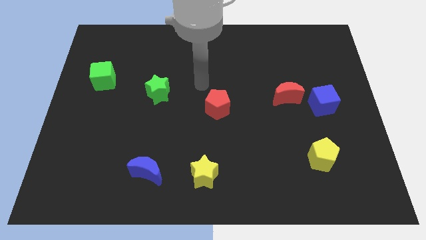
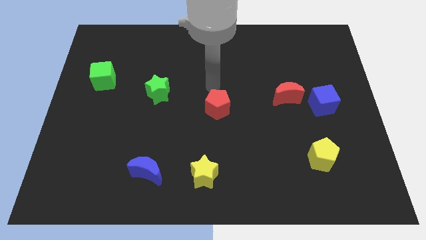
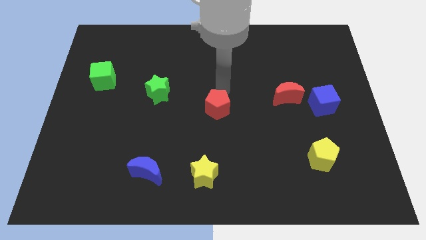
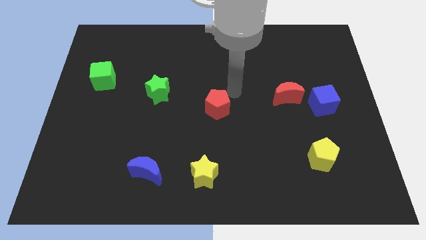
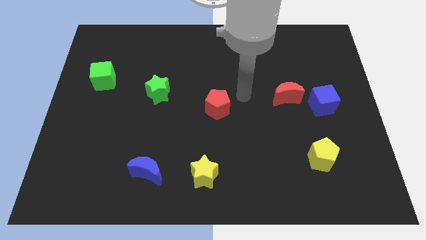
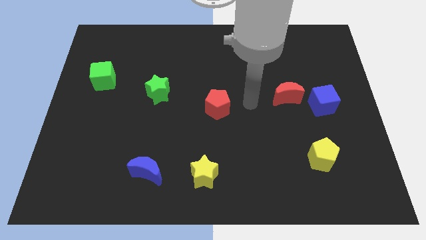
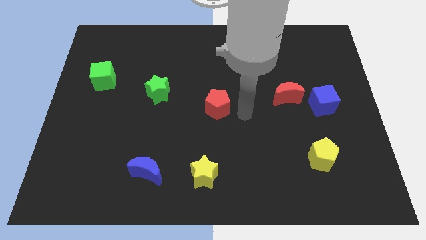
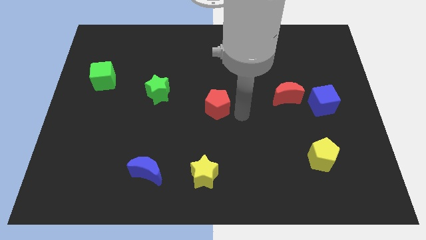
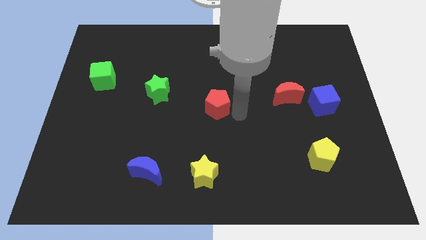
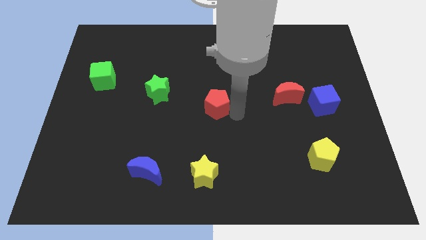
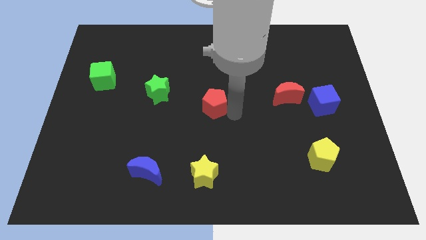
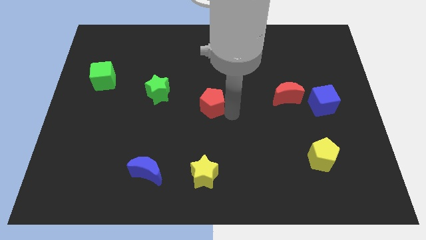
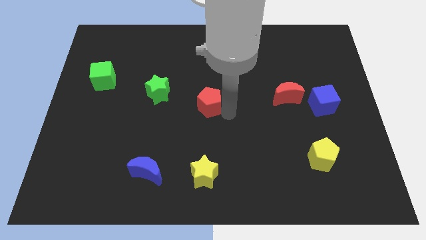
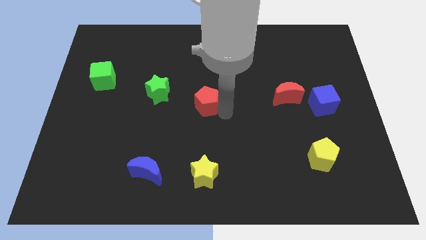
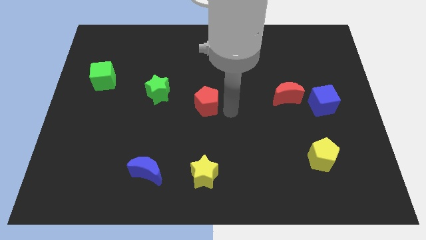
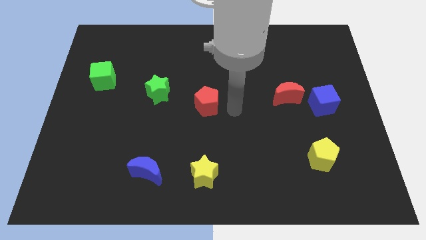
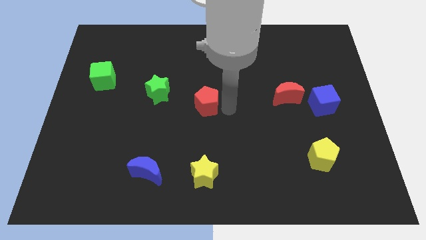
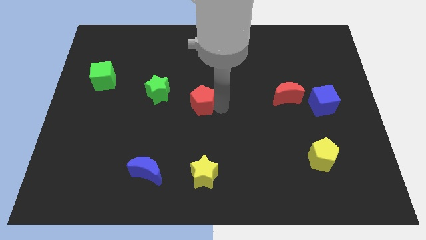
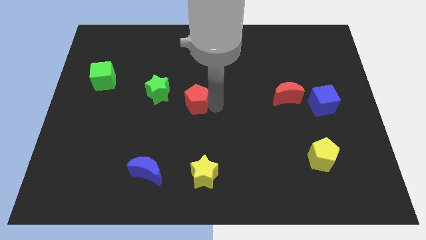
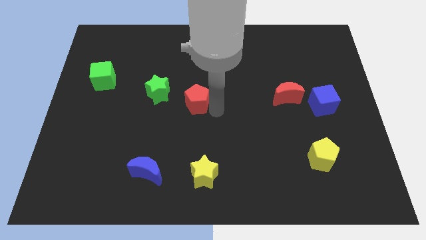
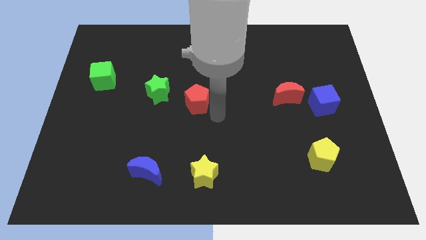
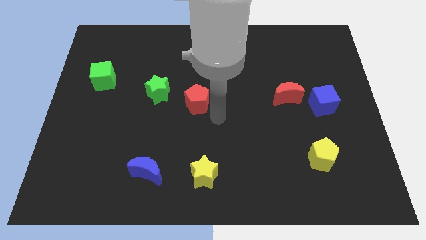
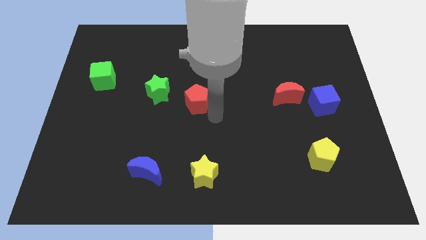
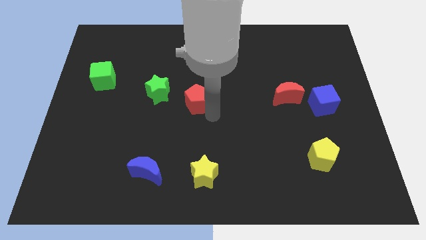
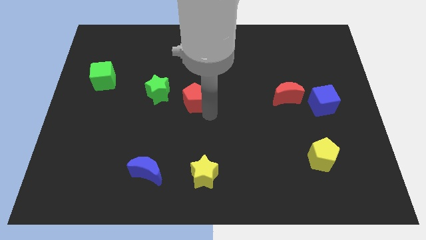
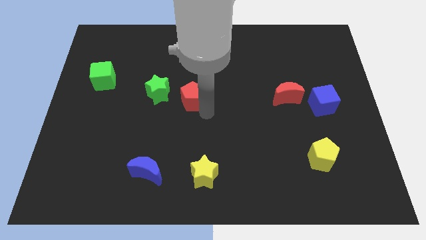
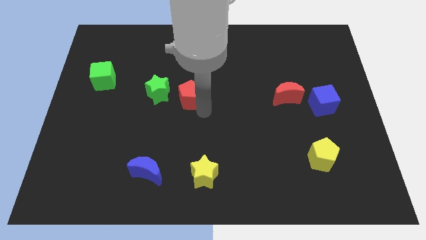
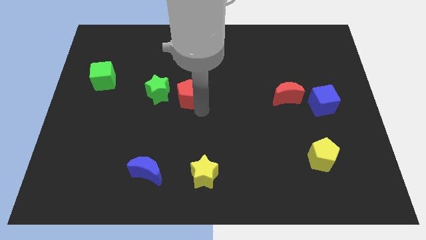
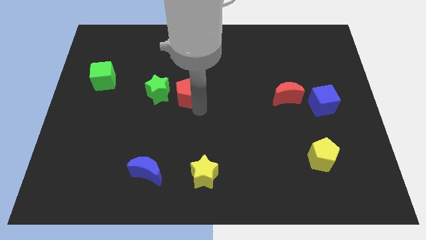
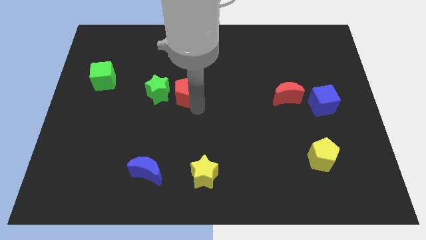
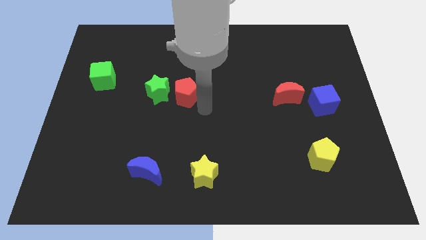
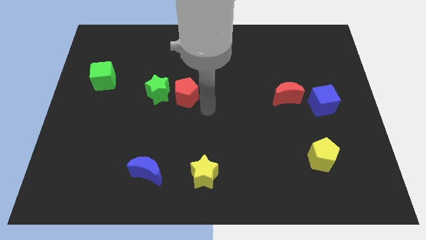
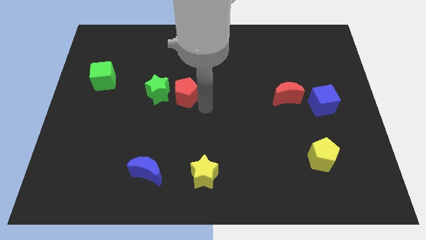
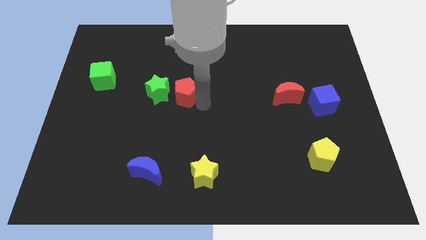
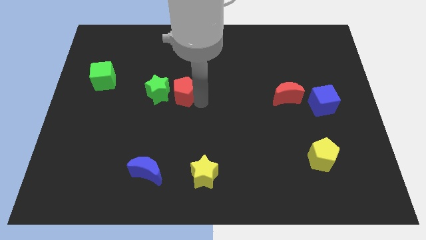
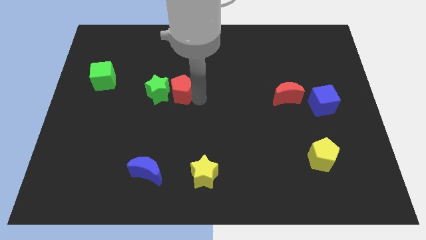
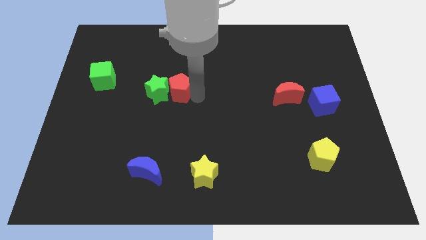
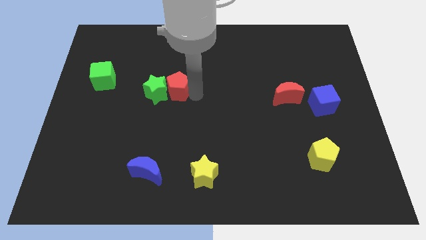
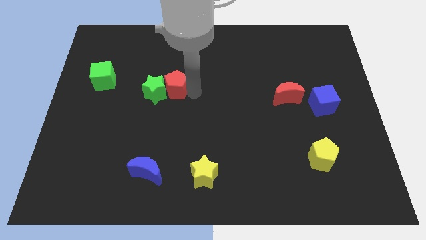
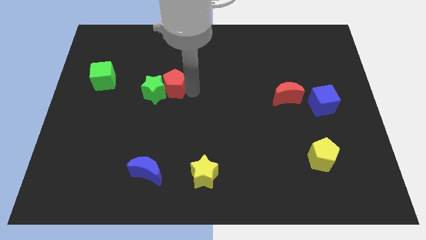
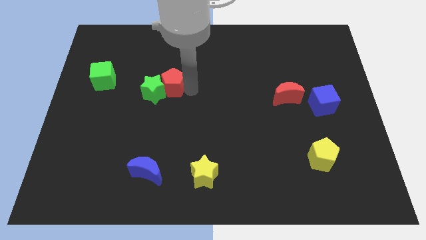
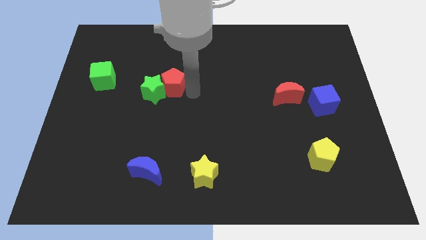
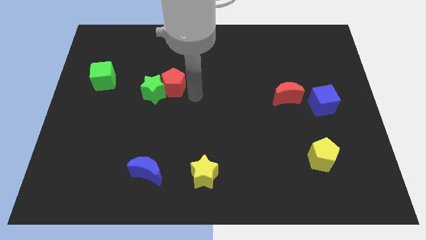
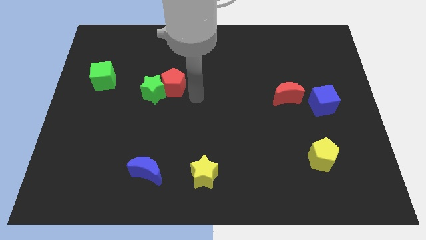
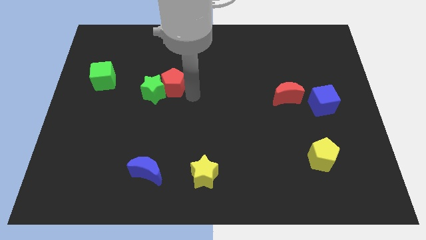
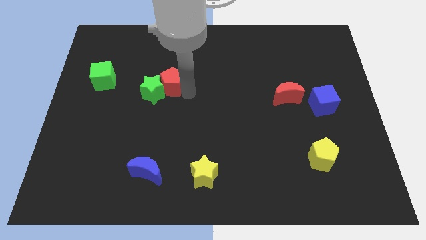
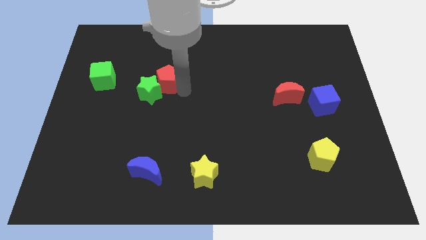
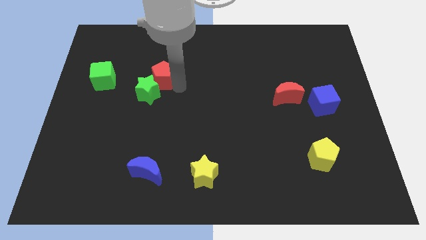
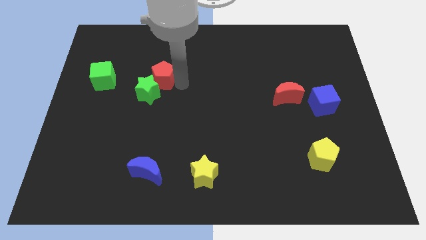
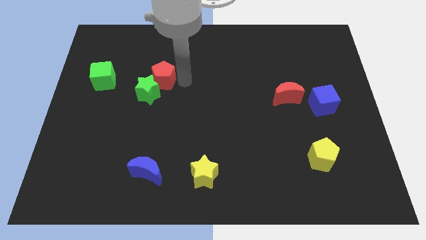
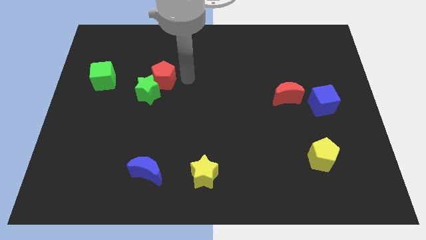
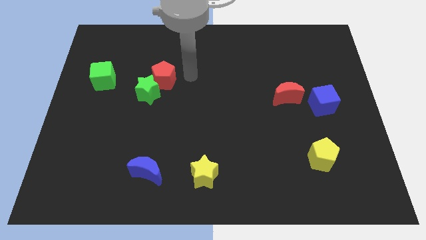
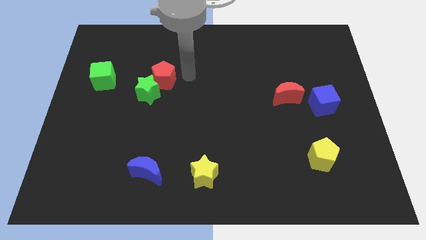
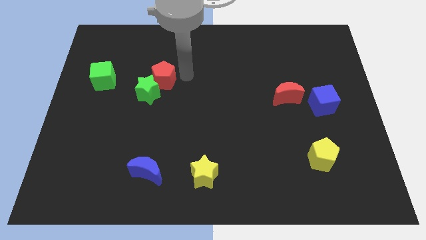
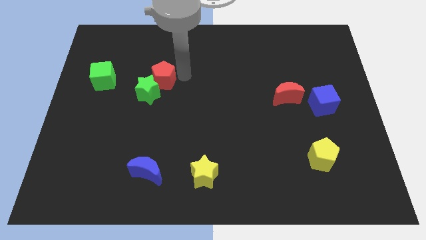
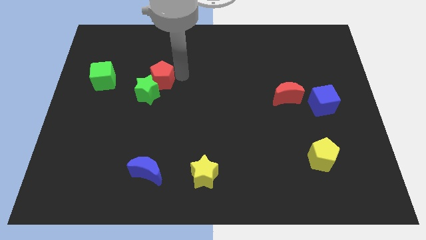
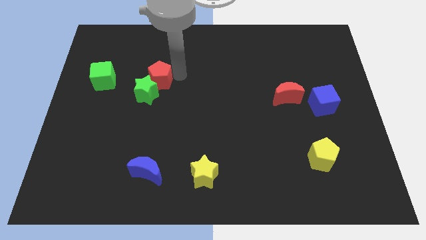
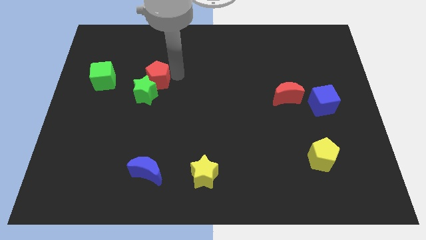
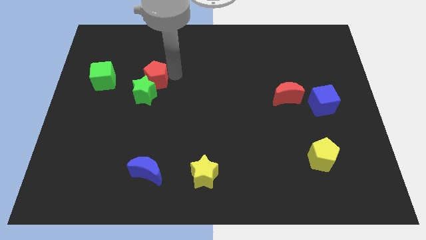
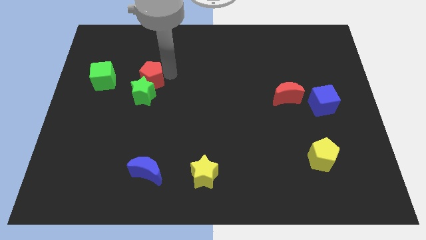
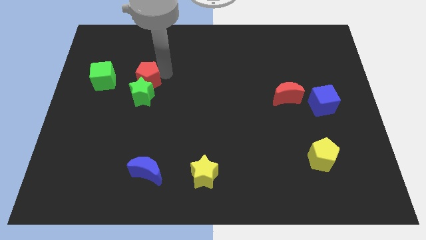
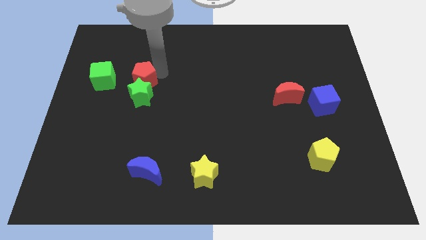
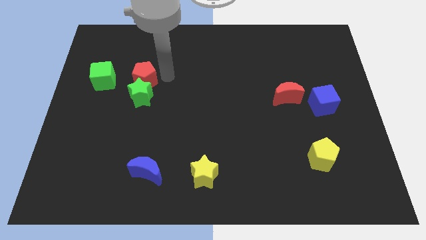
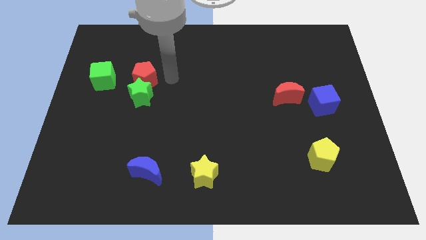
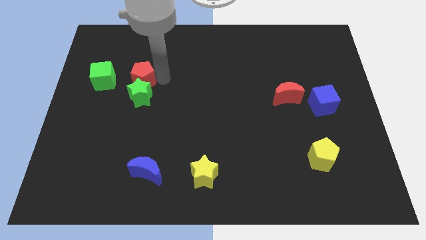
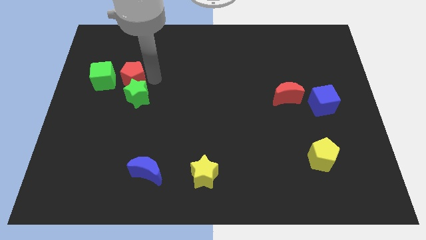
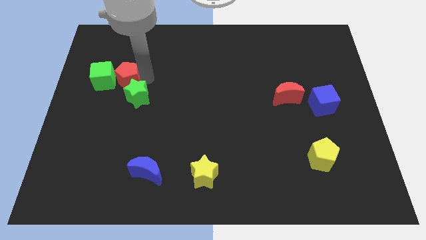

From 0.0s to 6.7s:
slide the red pentagon to the green cube
